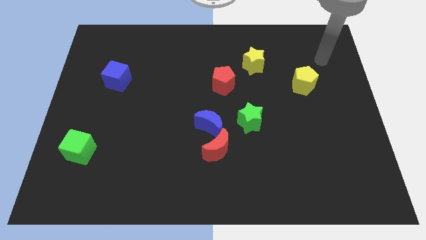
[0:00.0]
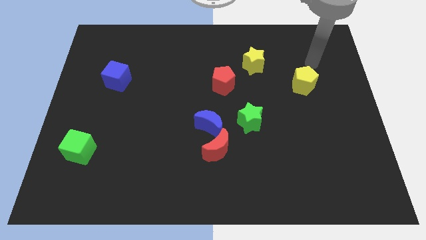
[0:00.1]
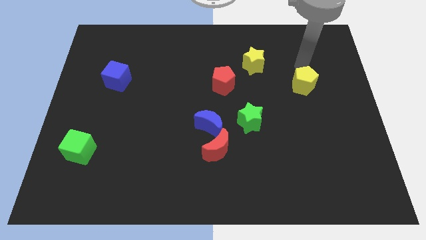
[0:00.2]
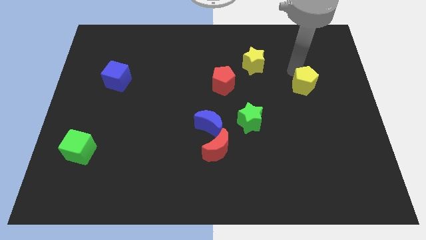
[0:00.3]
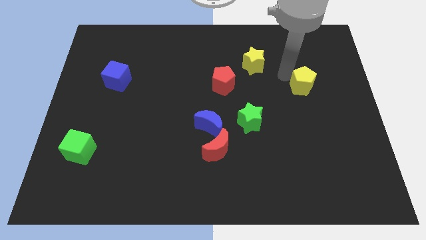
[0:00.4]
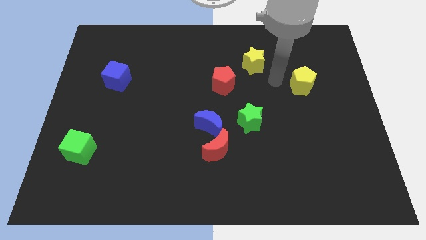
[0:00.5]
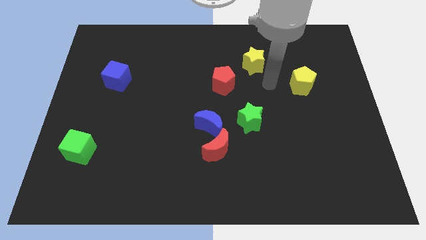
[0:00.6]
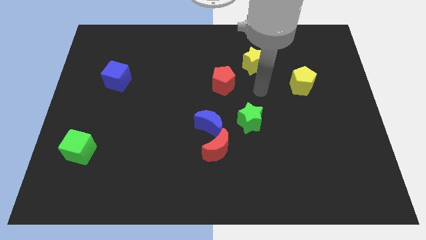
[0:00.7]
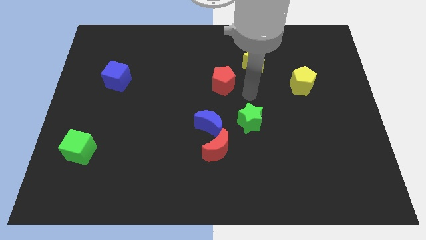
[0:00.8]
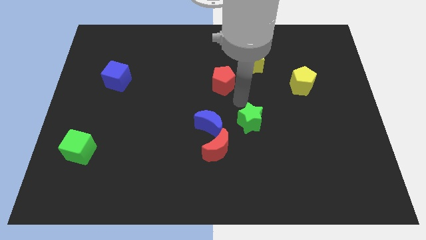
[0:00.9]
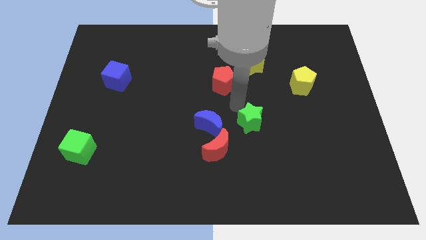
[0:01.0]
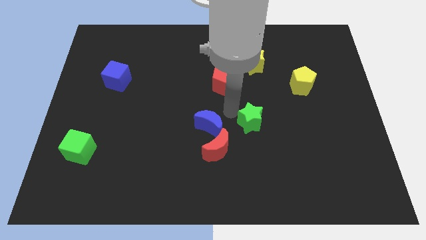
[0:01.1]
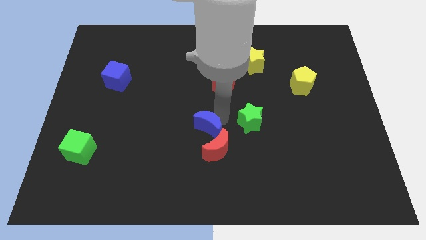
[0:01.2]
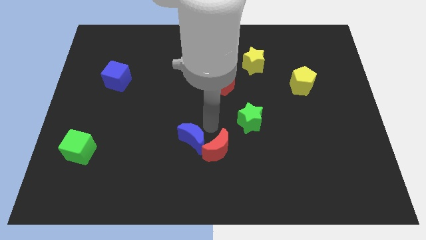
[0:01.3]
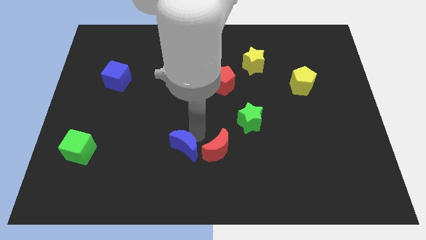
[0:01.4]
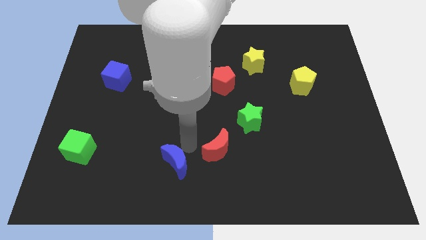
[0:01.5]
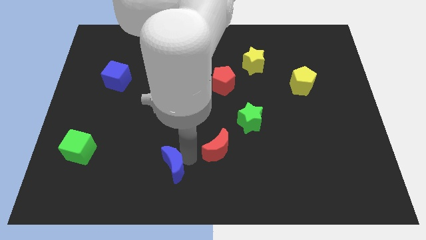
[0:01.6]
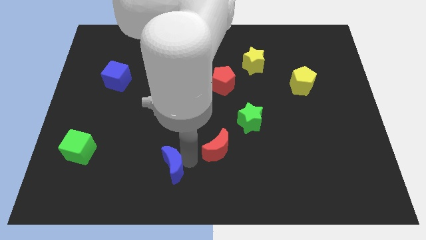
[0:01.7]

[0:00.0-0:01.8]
pull the red moon apart from the blue moon

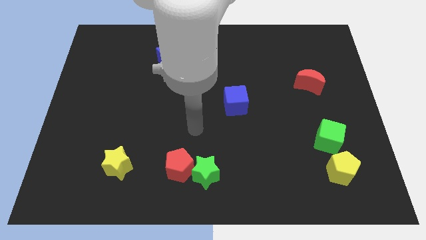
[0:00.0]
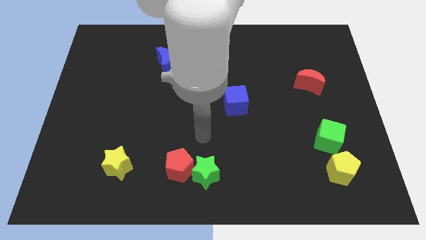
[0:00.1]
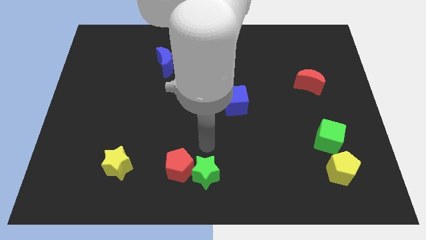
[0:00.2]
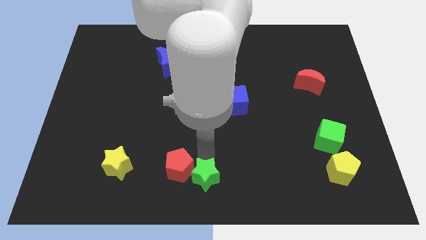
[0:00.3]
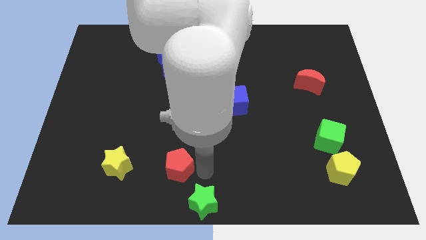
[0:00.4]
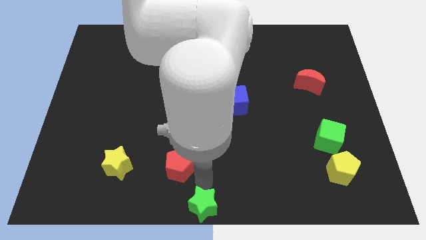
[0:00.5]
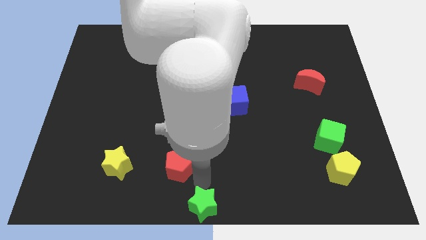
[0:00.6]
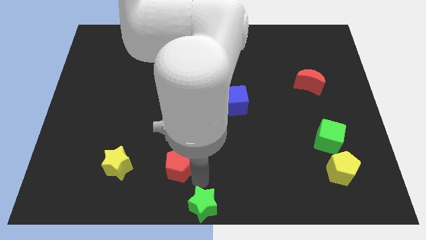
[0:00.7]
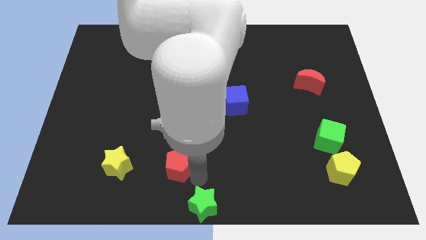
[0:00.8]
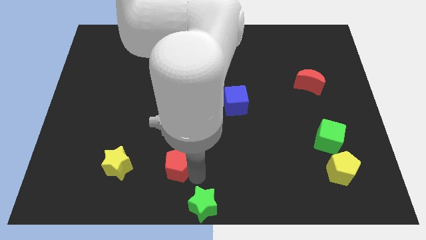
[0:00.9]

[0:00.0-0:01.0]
pull the red pentagon apart from the green star

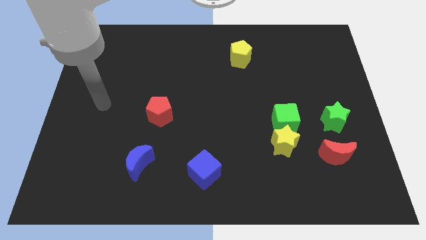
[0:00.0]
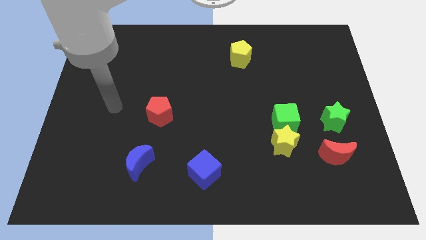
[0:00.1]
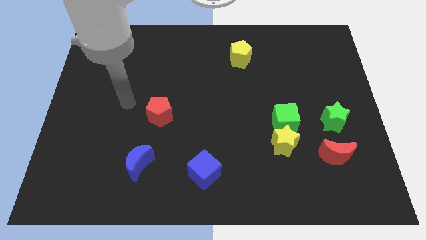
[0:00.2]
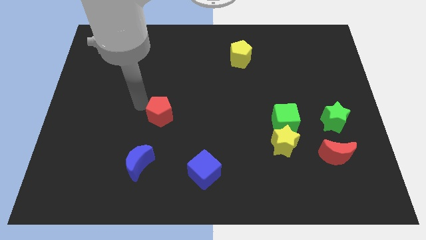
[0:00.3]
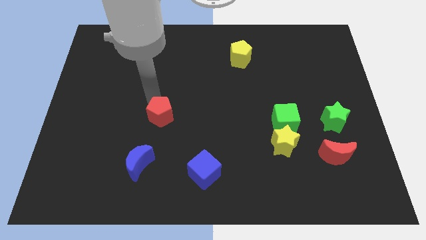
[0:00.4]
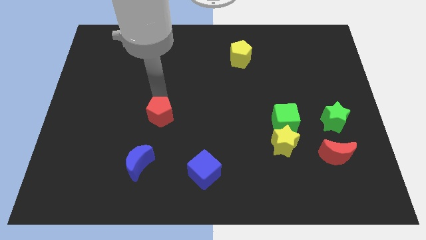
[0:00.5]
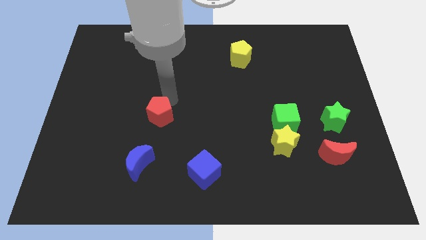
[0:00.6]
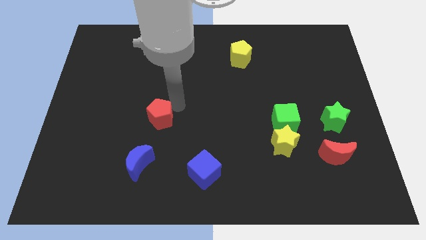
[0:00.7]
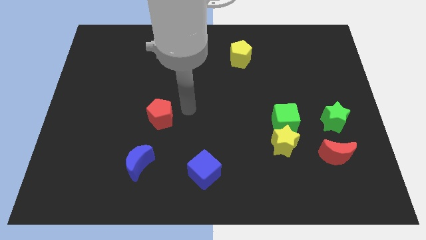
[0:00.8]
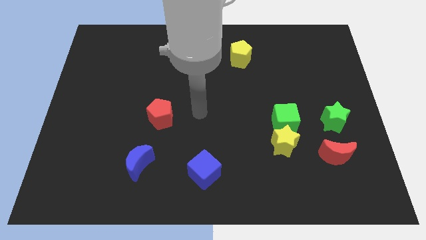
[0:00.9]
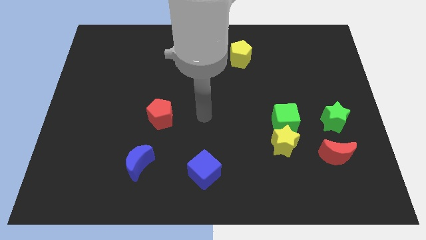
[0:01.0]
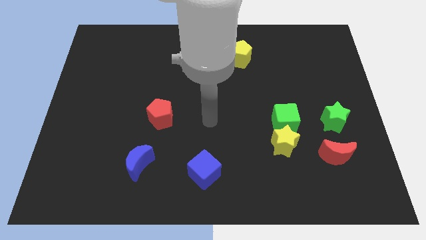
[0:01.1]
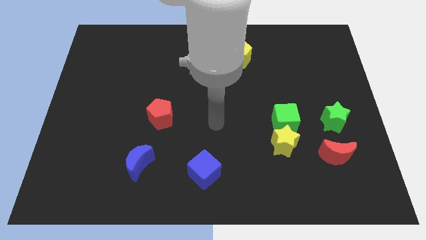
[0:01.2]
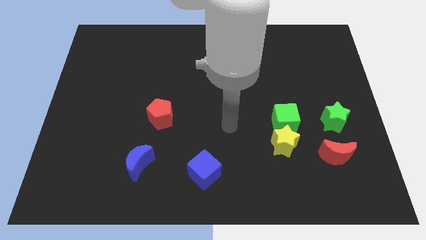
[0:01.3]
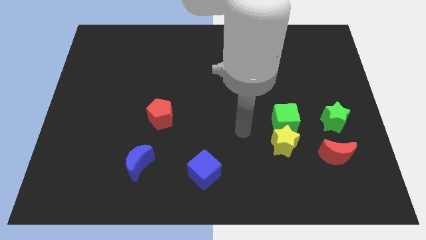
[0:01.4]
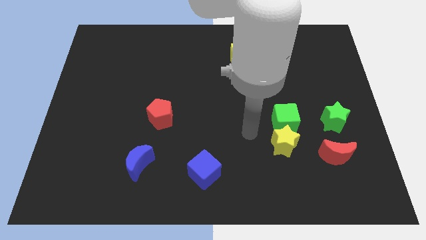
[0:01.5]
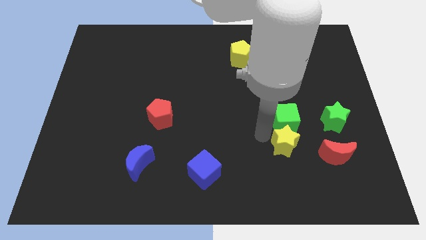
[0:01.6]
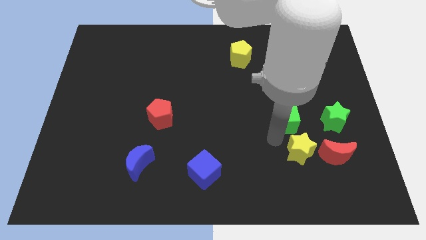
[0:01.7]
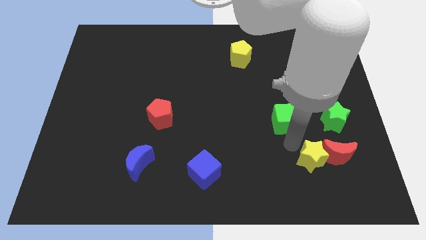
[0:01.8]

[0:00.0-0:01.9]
move the green cube away from the yellow star

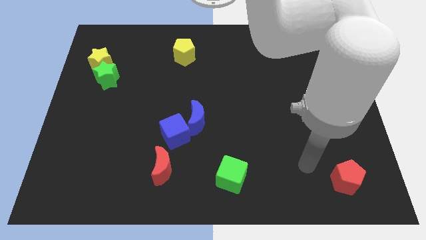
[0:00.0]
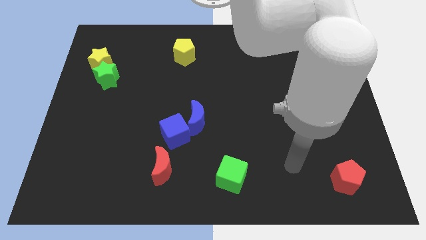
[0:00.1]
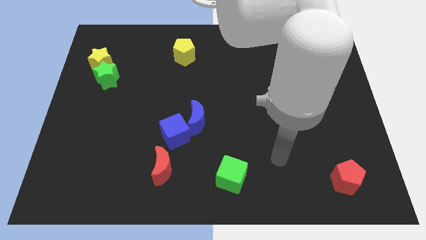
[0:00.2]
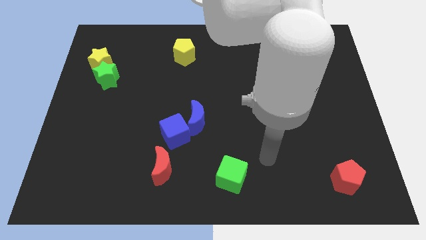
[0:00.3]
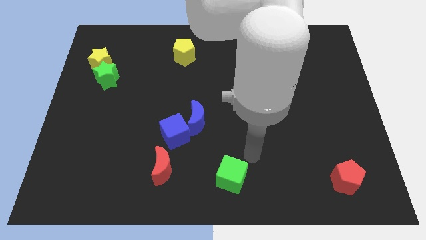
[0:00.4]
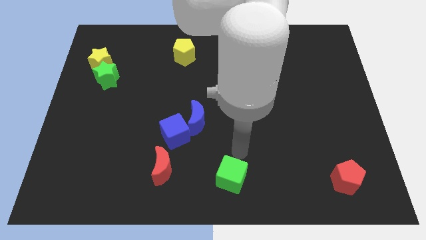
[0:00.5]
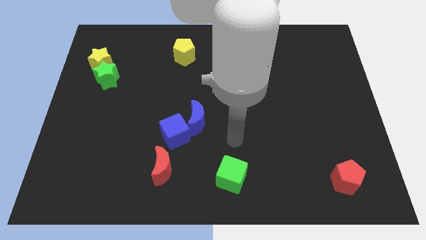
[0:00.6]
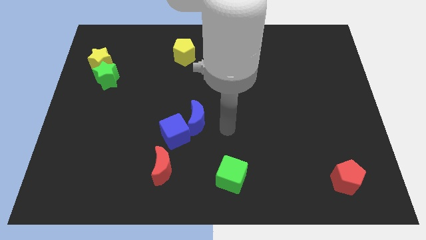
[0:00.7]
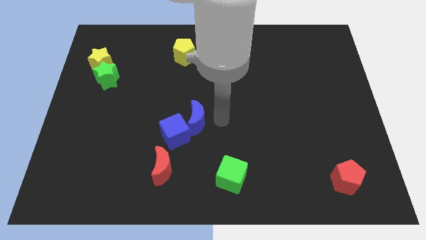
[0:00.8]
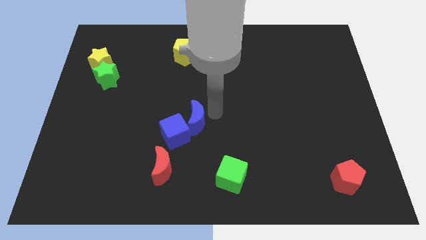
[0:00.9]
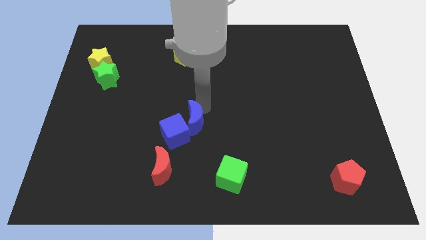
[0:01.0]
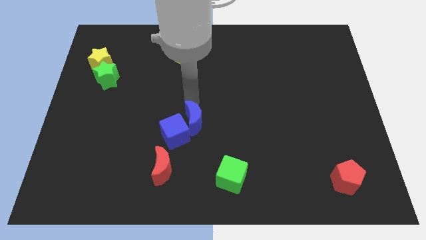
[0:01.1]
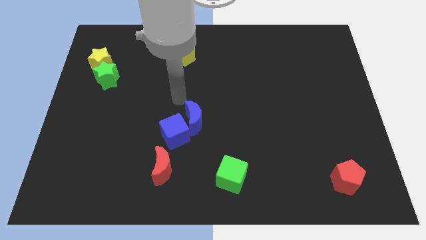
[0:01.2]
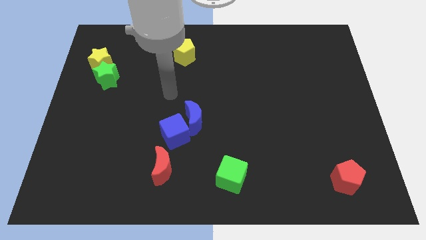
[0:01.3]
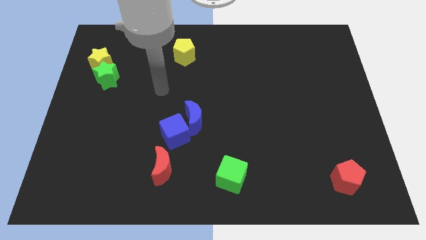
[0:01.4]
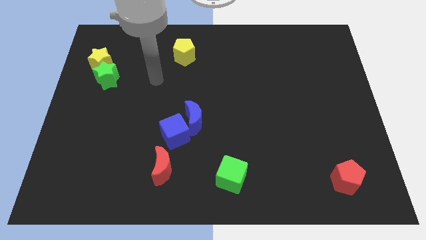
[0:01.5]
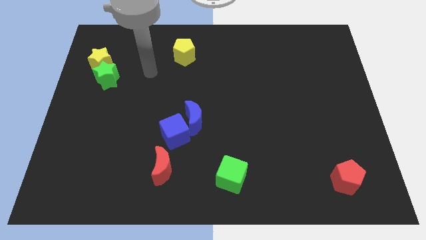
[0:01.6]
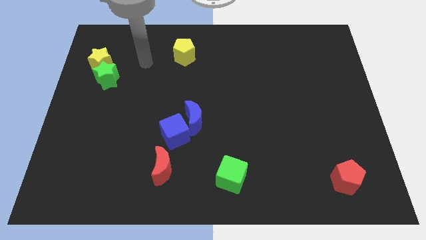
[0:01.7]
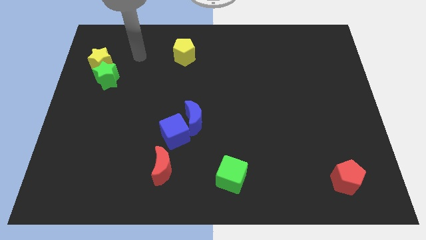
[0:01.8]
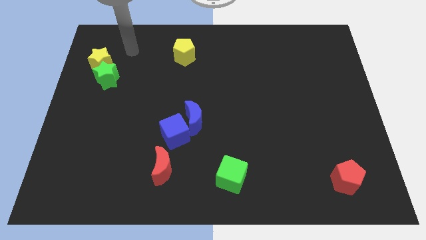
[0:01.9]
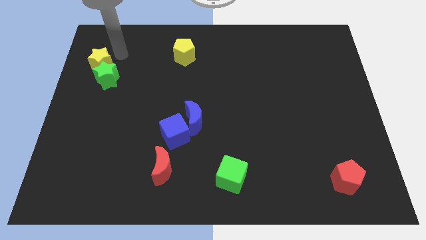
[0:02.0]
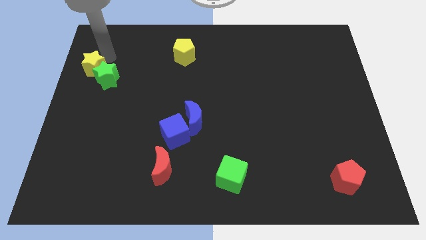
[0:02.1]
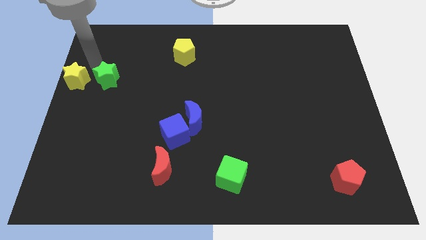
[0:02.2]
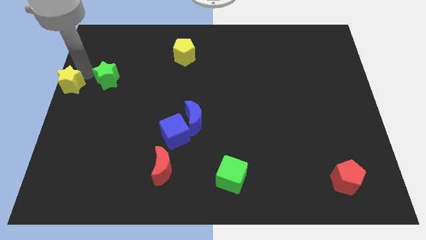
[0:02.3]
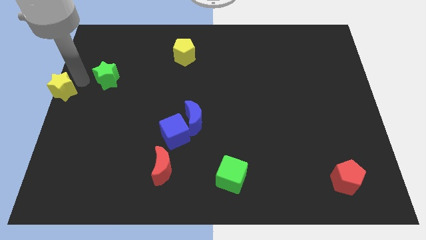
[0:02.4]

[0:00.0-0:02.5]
move the green star away from the yellow star

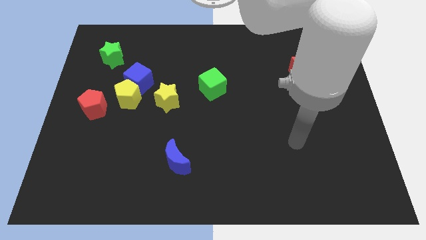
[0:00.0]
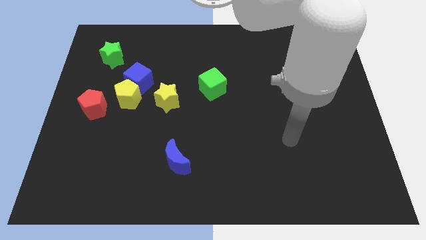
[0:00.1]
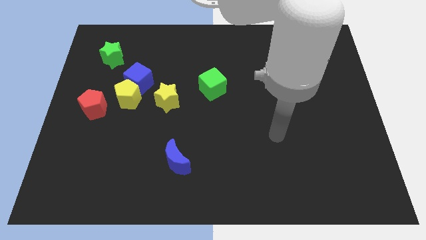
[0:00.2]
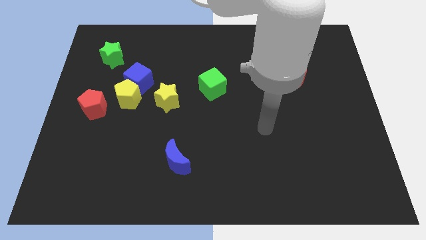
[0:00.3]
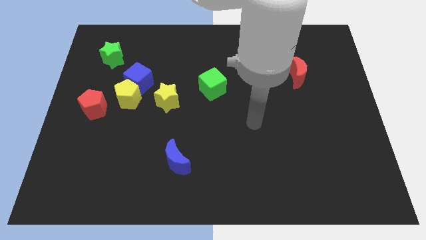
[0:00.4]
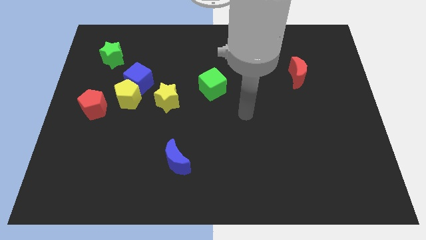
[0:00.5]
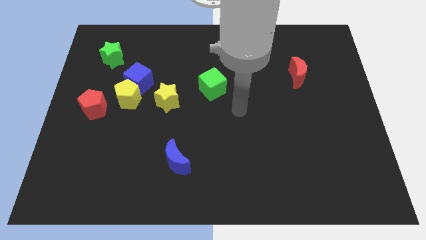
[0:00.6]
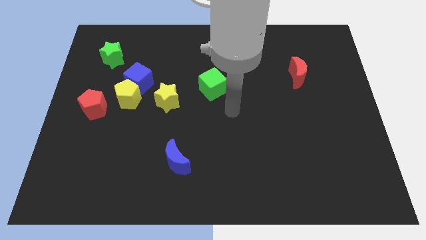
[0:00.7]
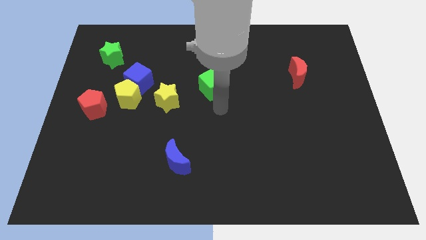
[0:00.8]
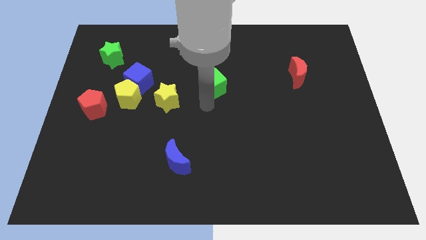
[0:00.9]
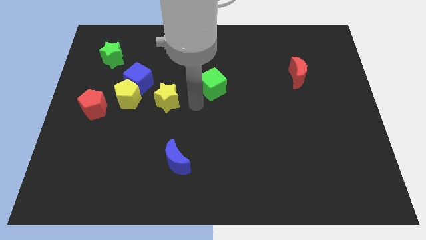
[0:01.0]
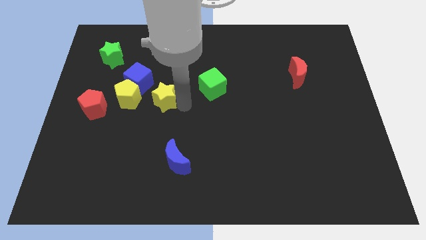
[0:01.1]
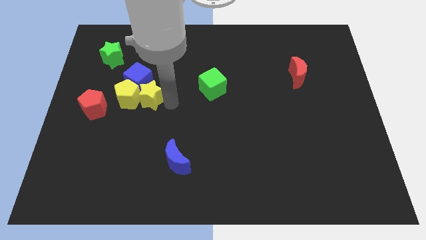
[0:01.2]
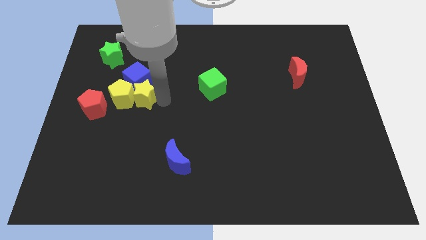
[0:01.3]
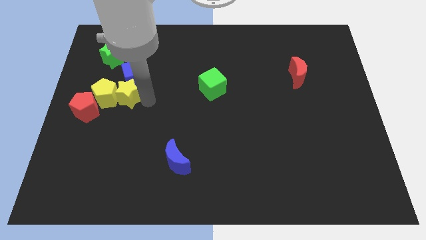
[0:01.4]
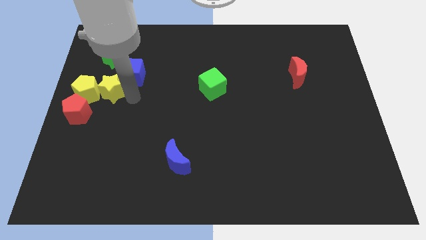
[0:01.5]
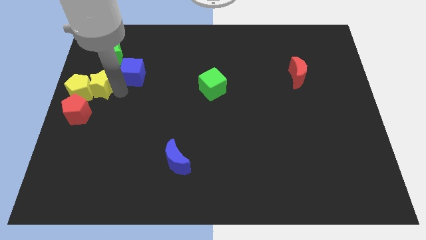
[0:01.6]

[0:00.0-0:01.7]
pull the blue cube apart from the yellow pentagon and yellow star

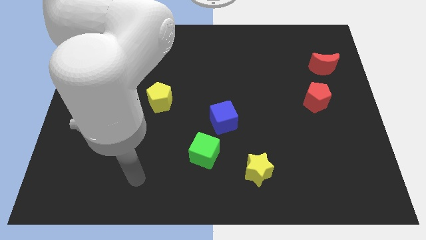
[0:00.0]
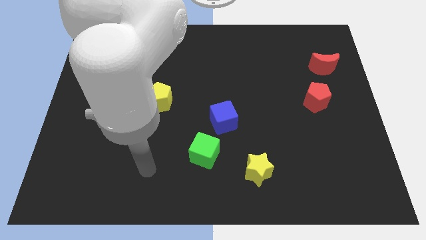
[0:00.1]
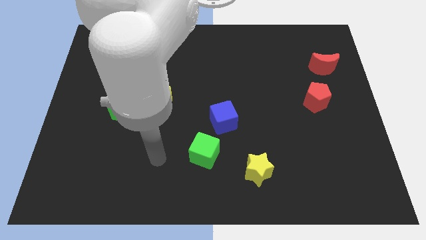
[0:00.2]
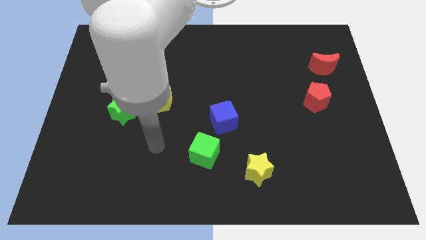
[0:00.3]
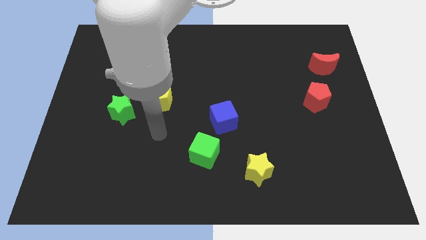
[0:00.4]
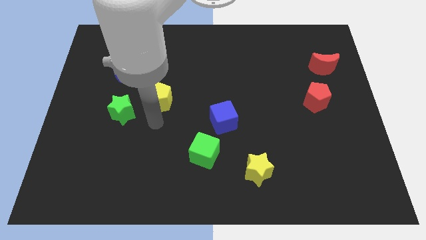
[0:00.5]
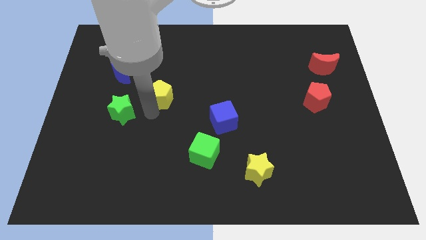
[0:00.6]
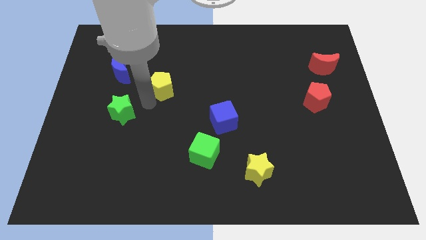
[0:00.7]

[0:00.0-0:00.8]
pull the green star apart from the yellow pentagon
